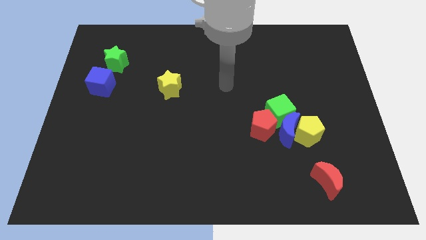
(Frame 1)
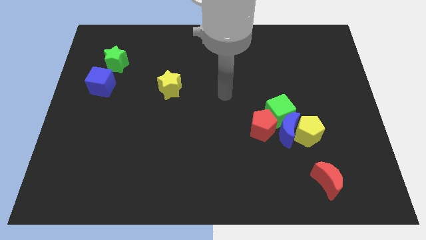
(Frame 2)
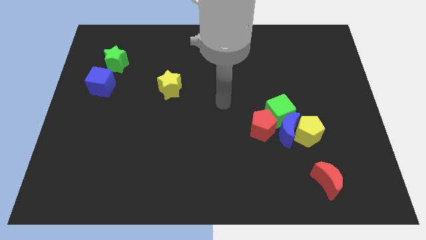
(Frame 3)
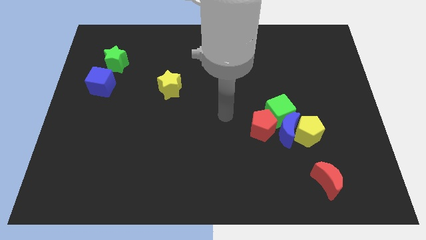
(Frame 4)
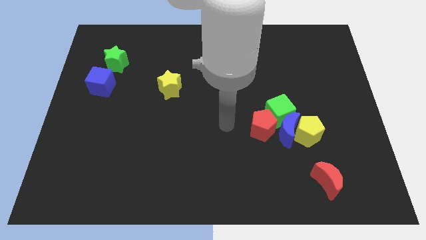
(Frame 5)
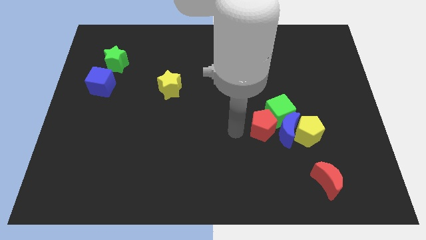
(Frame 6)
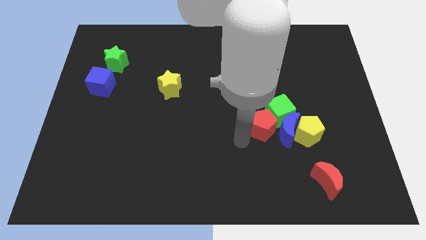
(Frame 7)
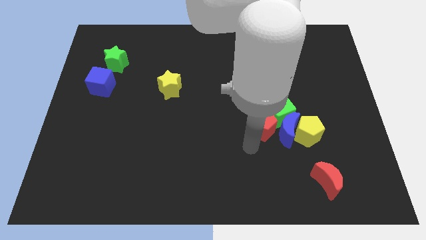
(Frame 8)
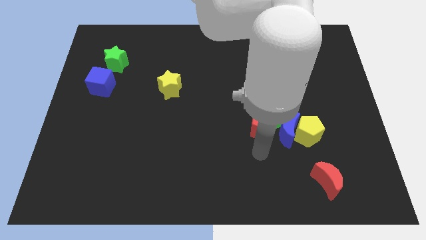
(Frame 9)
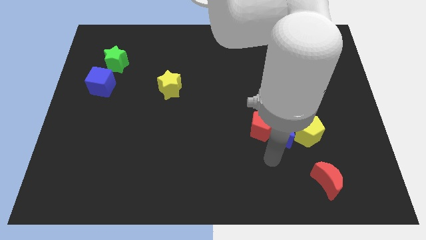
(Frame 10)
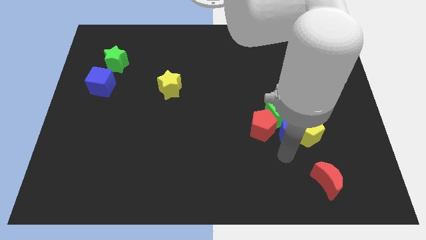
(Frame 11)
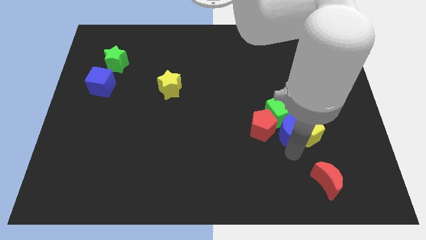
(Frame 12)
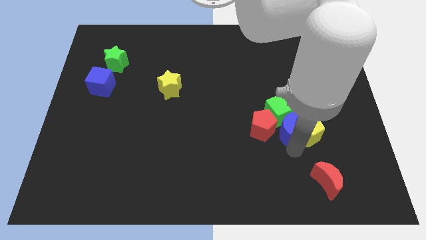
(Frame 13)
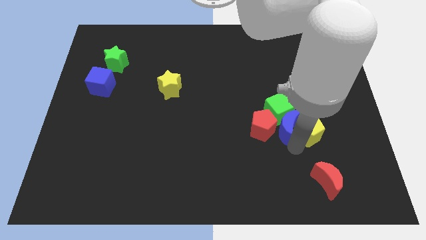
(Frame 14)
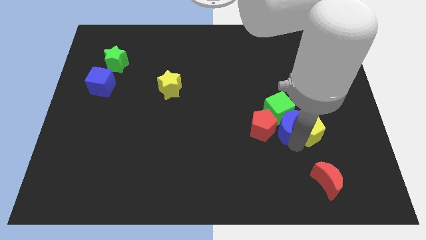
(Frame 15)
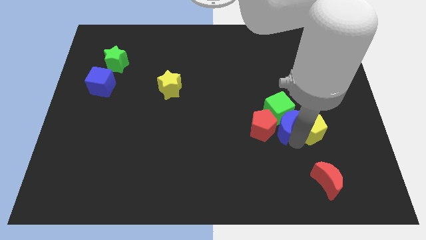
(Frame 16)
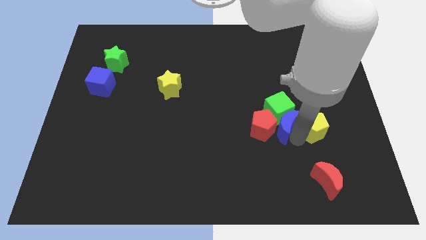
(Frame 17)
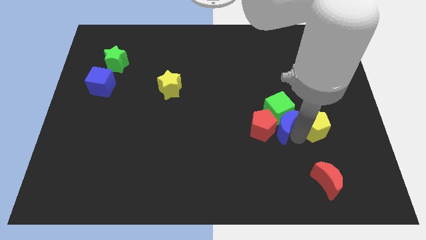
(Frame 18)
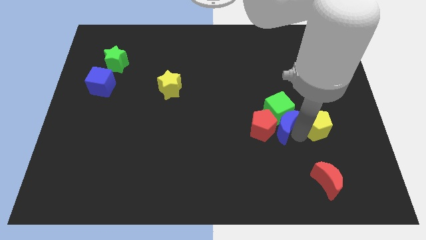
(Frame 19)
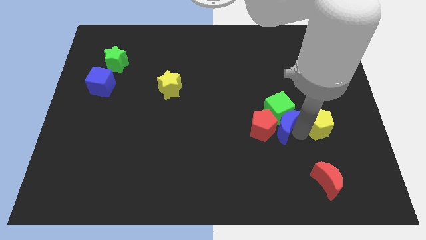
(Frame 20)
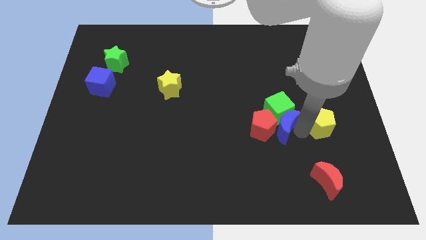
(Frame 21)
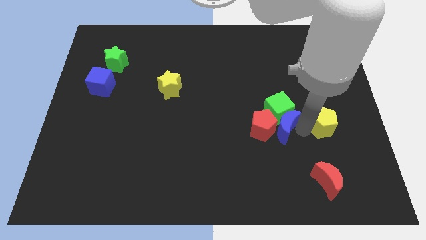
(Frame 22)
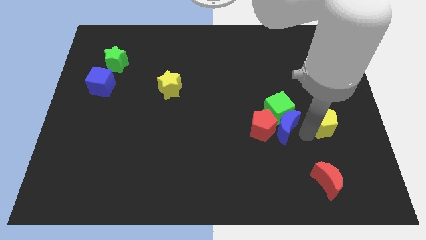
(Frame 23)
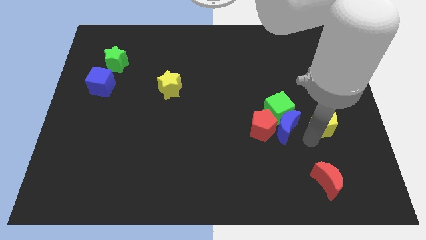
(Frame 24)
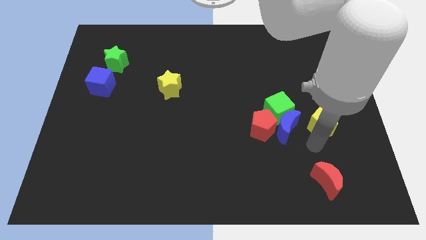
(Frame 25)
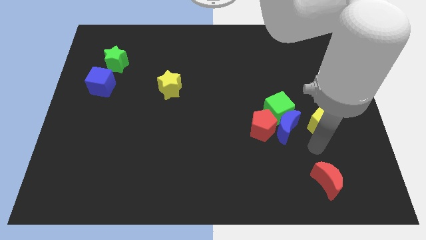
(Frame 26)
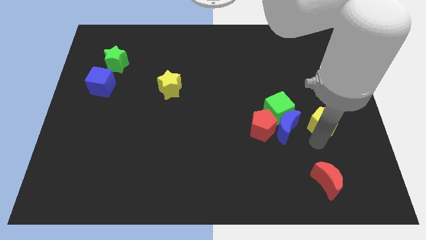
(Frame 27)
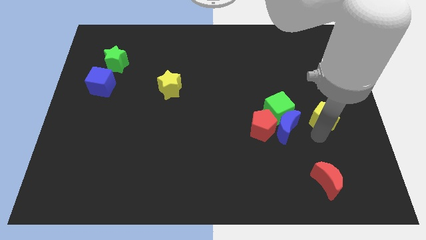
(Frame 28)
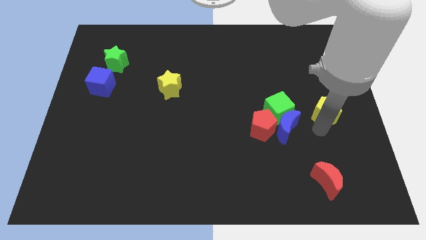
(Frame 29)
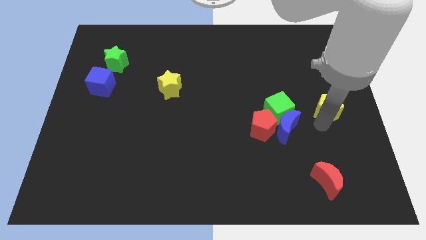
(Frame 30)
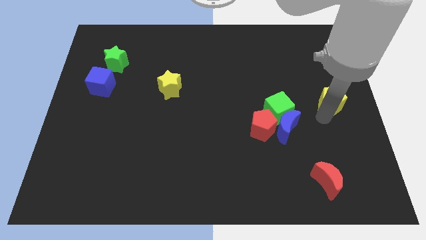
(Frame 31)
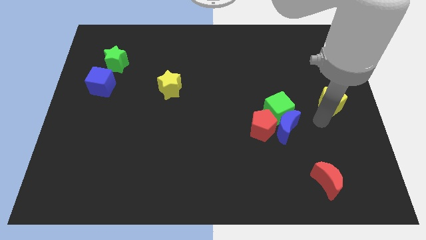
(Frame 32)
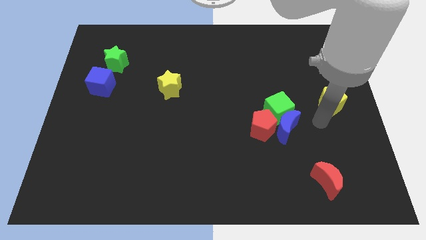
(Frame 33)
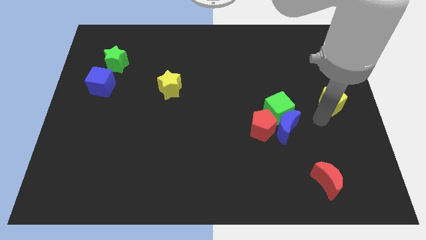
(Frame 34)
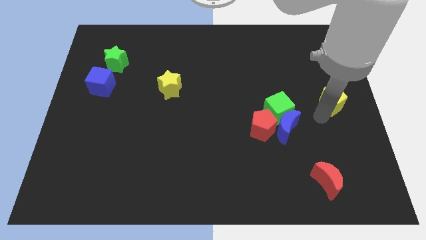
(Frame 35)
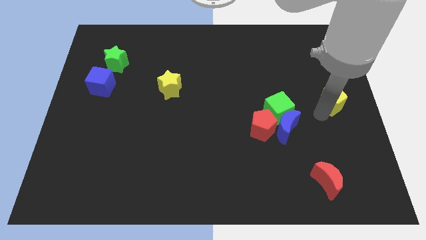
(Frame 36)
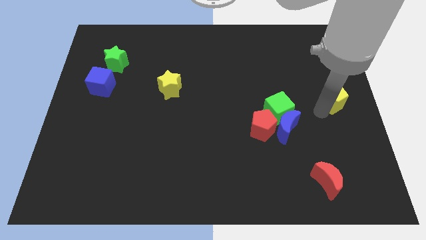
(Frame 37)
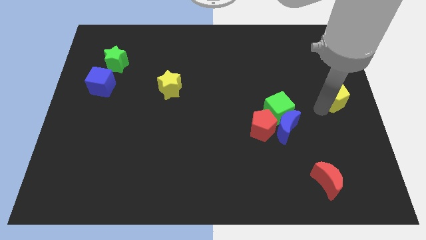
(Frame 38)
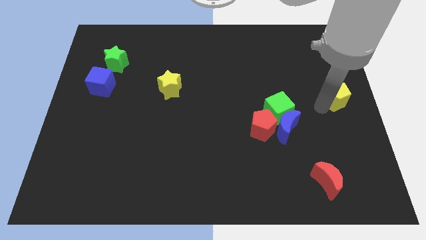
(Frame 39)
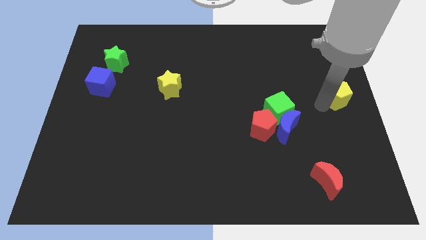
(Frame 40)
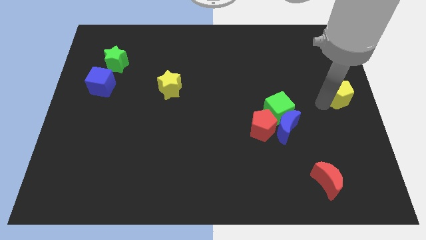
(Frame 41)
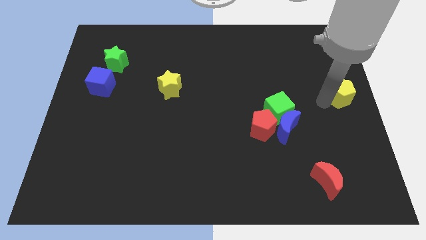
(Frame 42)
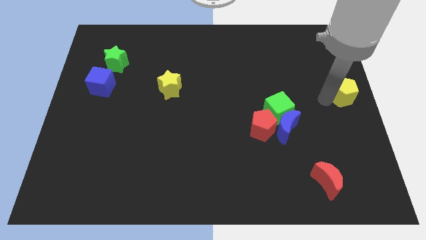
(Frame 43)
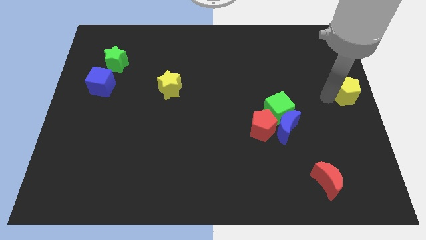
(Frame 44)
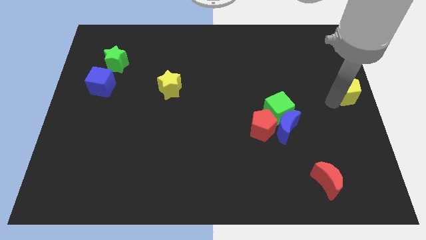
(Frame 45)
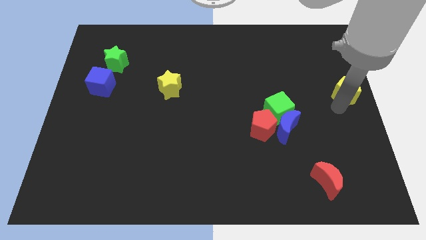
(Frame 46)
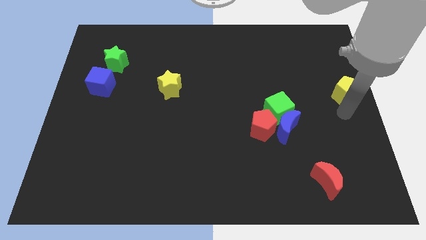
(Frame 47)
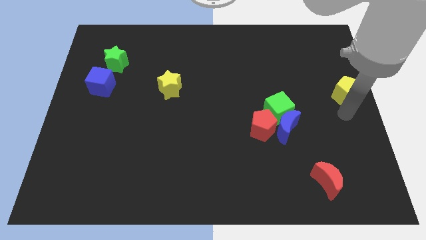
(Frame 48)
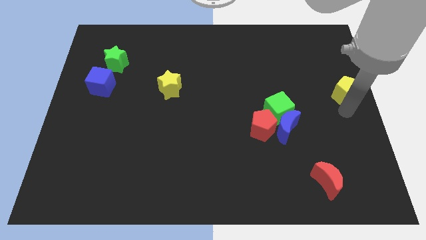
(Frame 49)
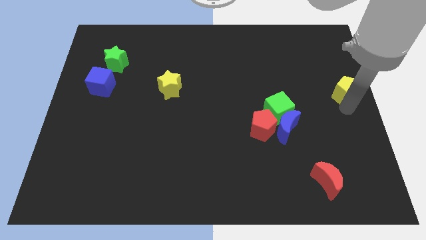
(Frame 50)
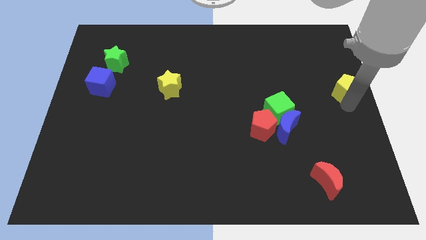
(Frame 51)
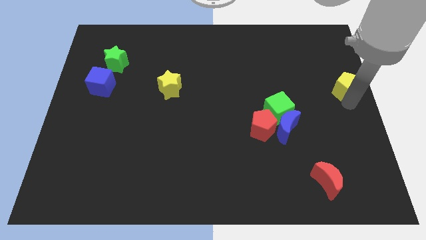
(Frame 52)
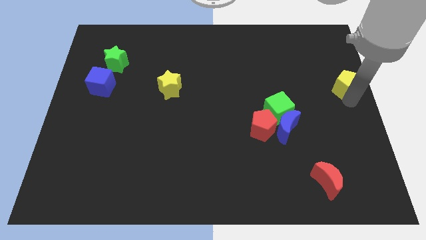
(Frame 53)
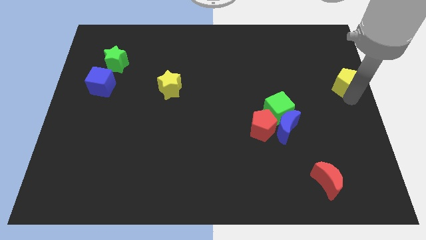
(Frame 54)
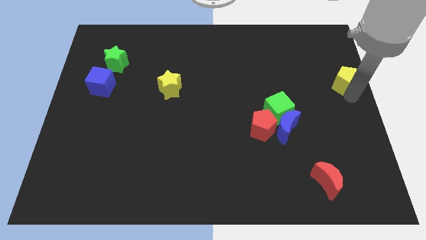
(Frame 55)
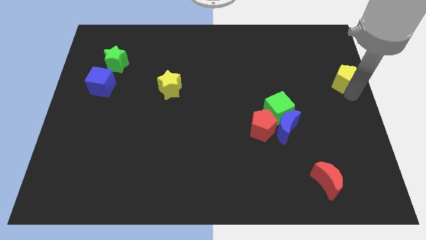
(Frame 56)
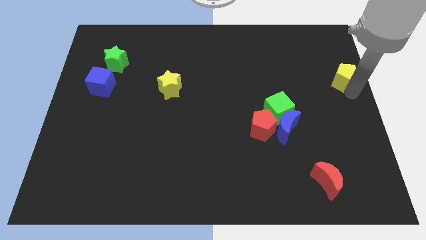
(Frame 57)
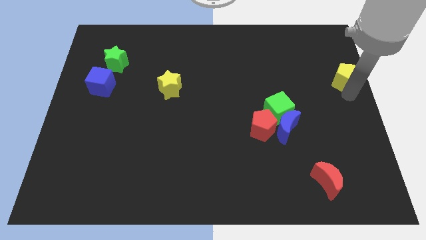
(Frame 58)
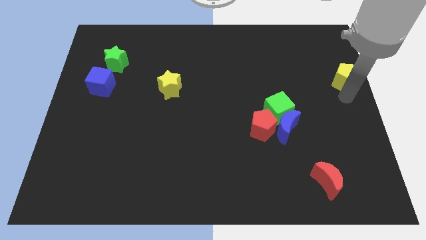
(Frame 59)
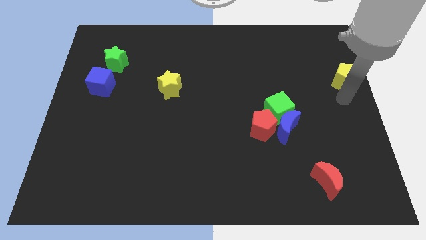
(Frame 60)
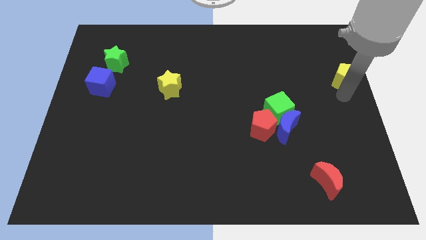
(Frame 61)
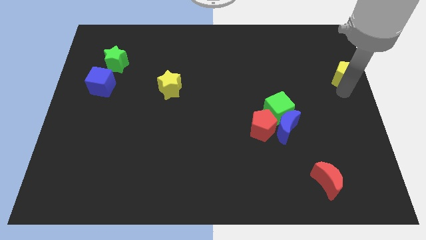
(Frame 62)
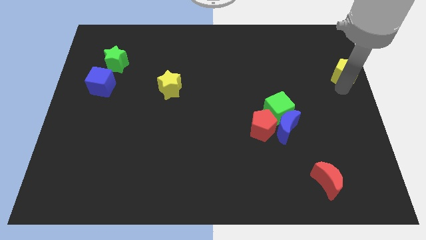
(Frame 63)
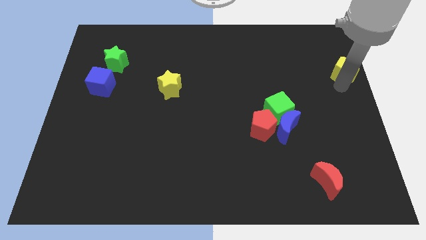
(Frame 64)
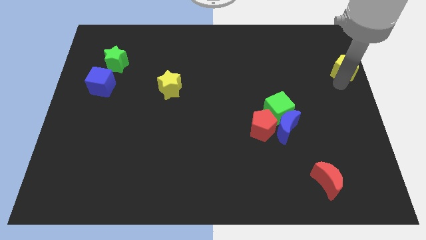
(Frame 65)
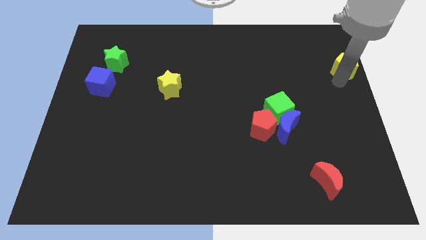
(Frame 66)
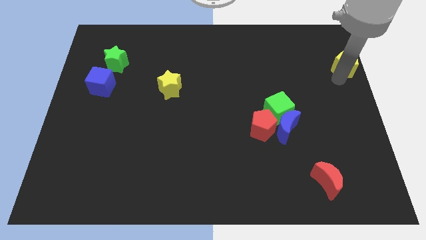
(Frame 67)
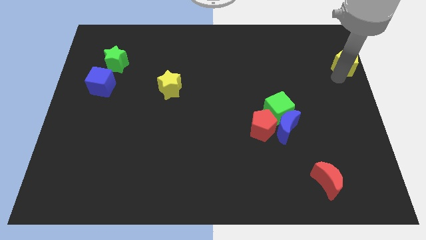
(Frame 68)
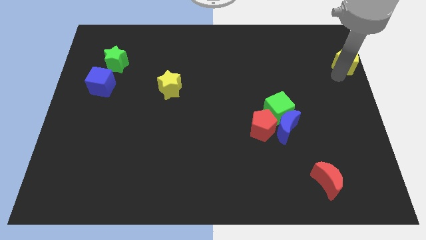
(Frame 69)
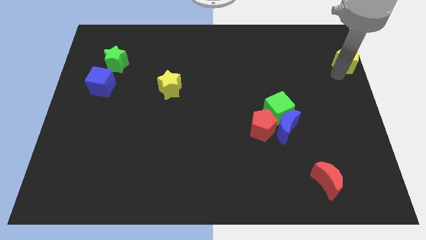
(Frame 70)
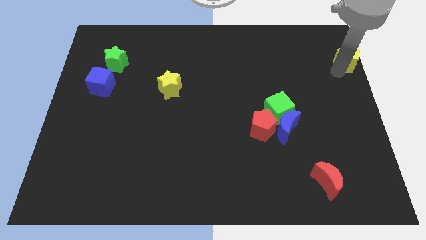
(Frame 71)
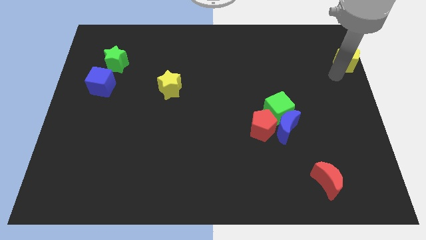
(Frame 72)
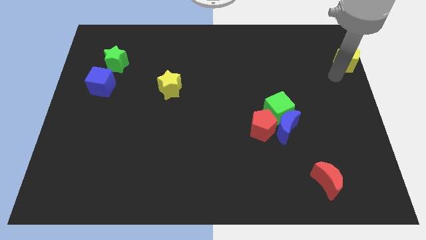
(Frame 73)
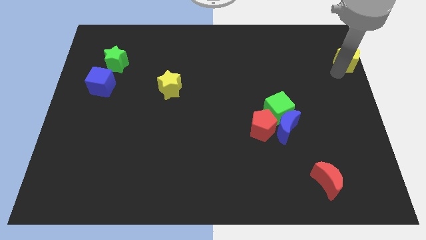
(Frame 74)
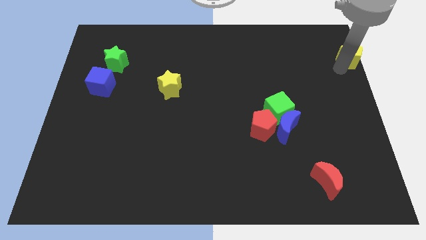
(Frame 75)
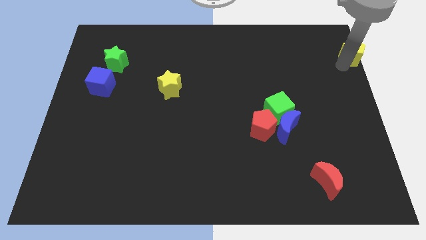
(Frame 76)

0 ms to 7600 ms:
push the yellow pentagon to the top right
